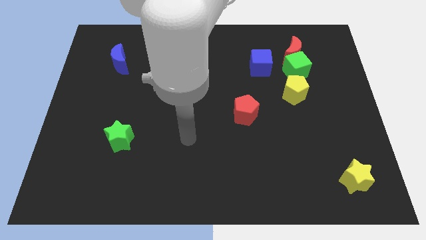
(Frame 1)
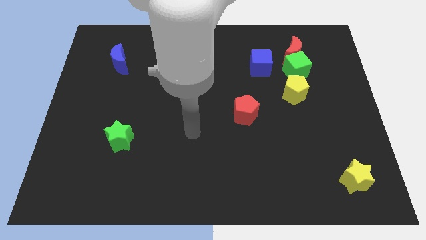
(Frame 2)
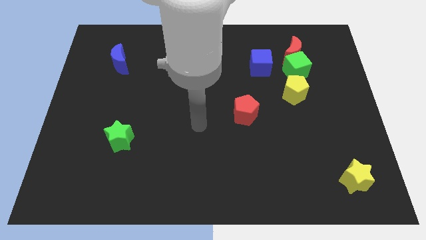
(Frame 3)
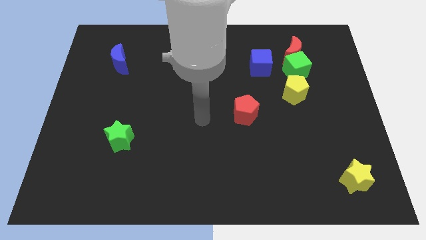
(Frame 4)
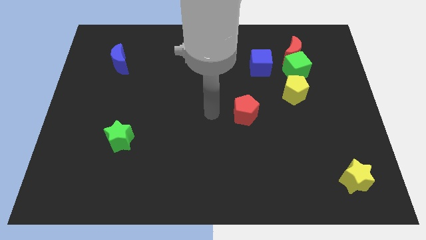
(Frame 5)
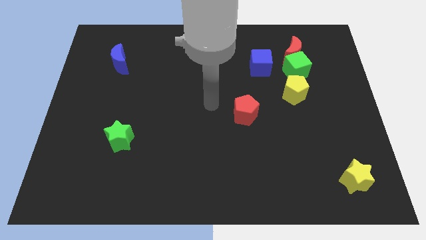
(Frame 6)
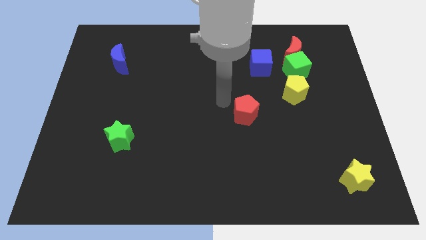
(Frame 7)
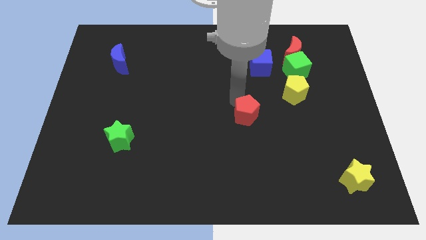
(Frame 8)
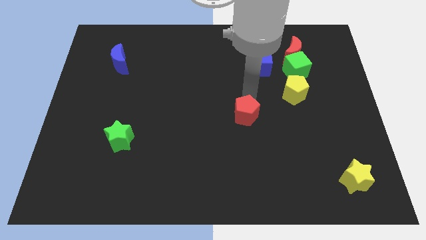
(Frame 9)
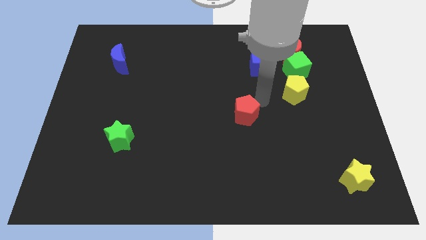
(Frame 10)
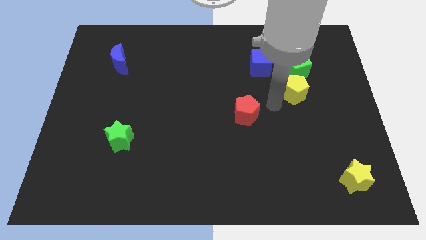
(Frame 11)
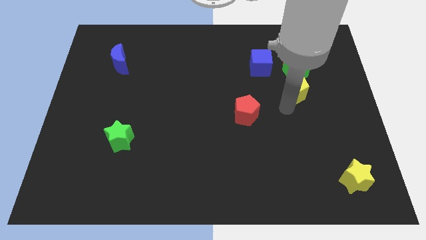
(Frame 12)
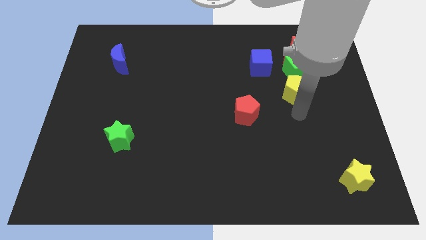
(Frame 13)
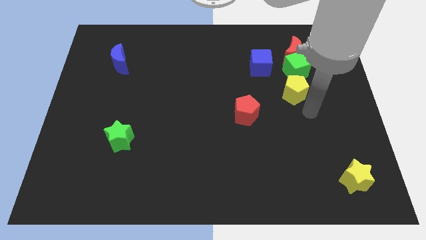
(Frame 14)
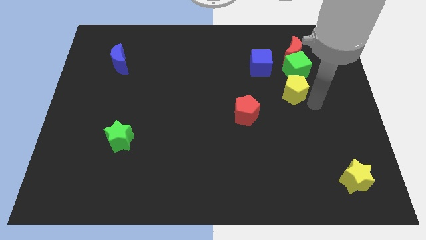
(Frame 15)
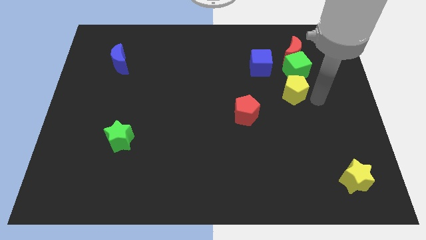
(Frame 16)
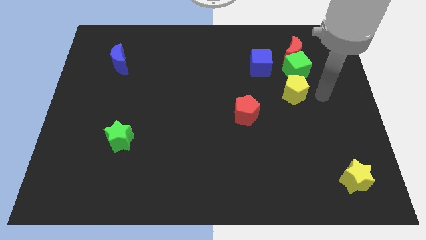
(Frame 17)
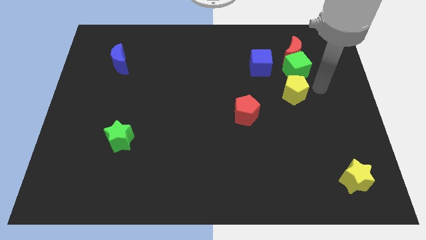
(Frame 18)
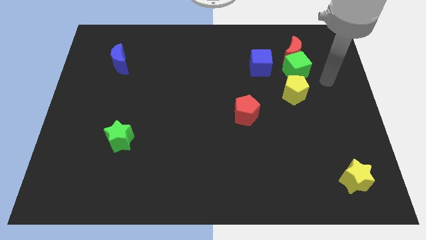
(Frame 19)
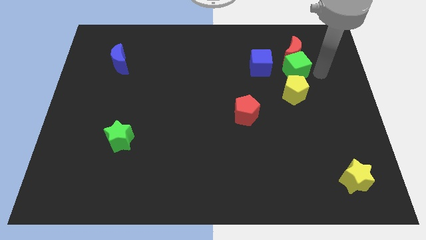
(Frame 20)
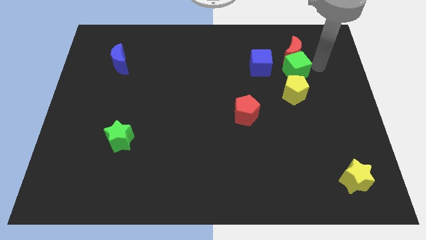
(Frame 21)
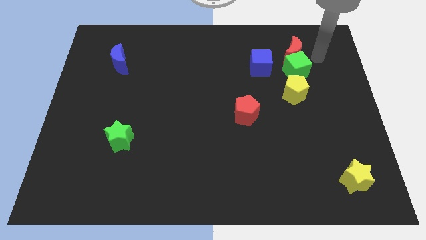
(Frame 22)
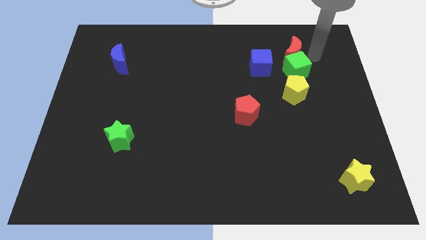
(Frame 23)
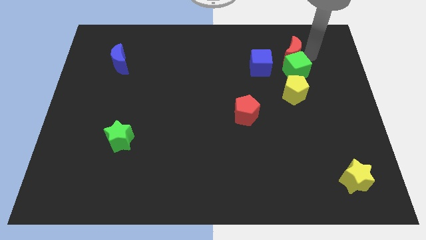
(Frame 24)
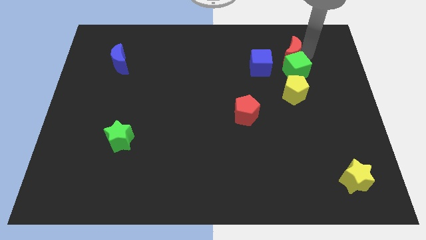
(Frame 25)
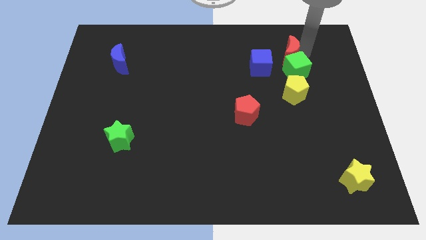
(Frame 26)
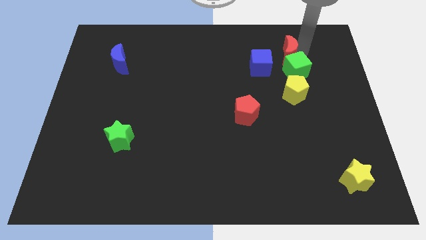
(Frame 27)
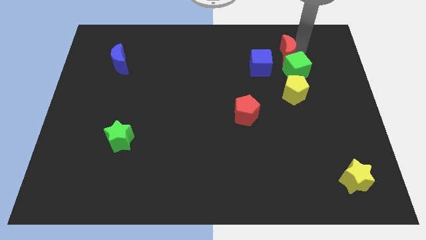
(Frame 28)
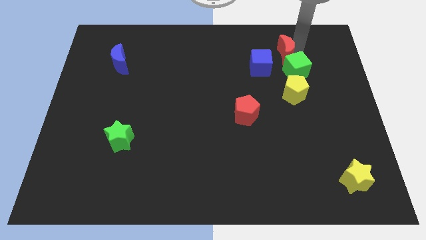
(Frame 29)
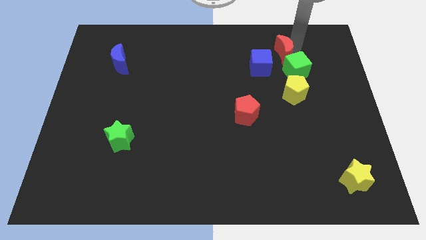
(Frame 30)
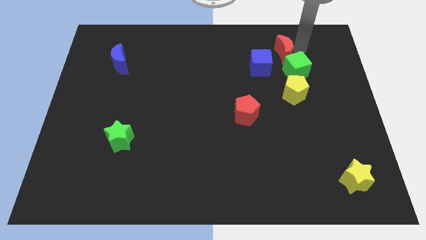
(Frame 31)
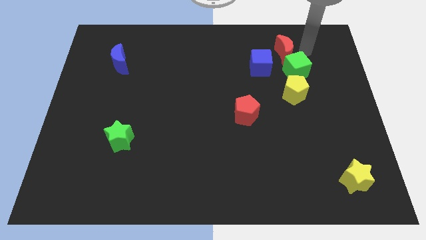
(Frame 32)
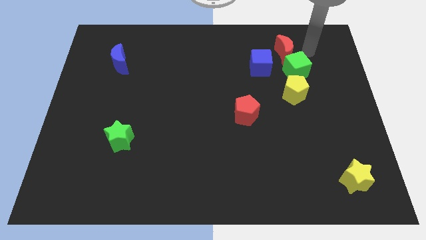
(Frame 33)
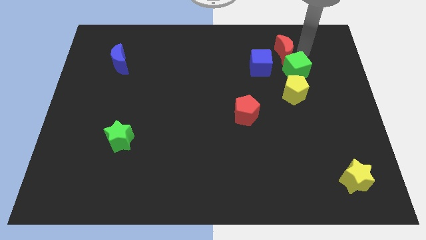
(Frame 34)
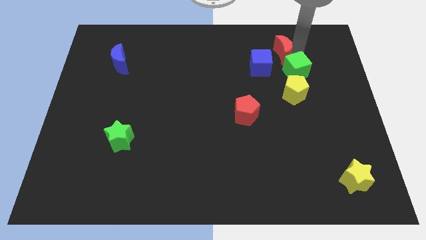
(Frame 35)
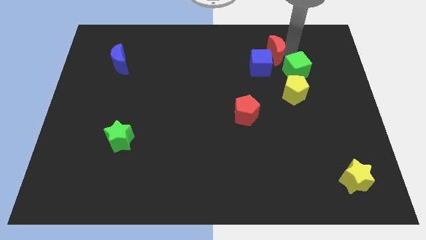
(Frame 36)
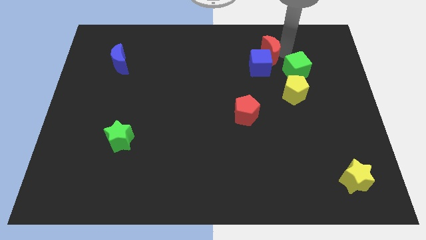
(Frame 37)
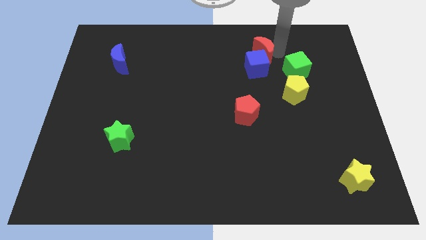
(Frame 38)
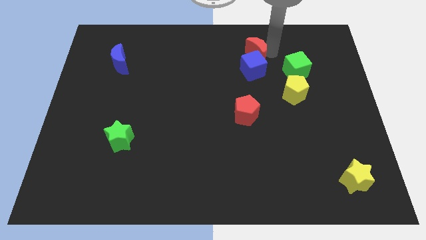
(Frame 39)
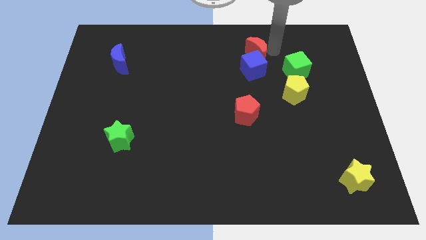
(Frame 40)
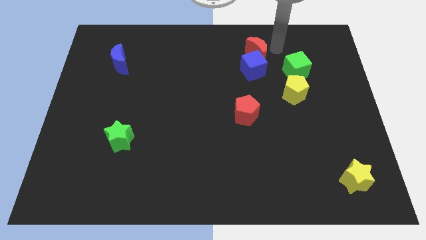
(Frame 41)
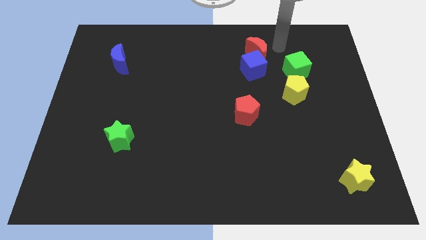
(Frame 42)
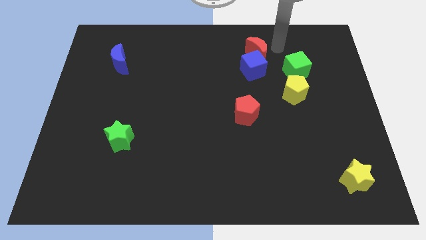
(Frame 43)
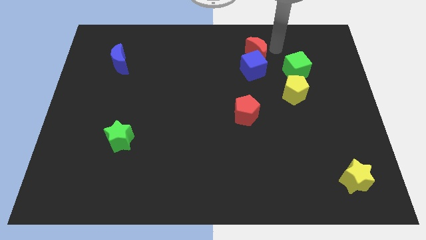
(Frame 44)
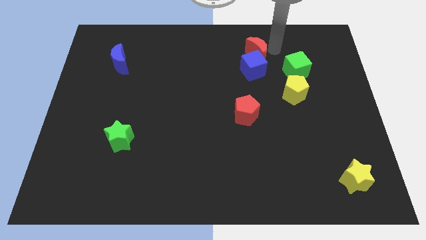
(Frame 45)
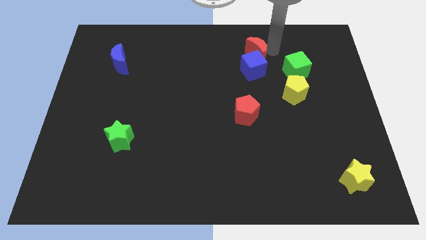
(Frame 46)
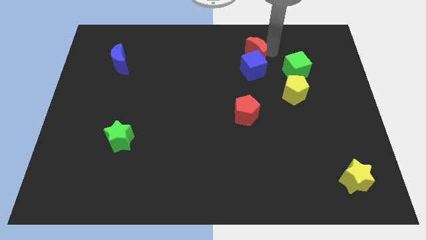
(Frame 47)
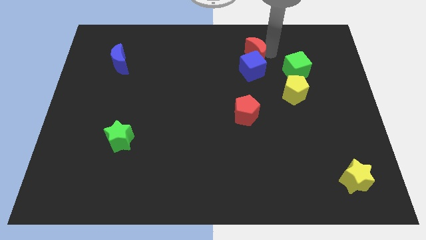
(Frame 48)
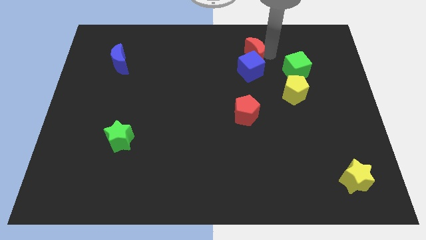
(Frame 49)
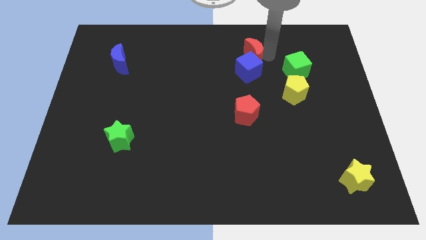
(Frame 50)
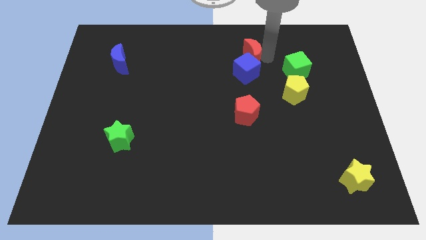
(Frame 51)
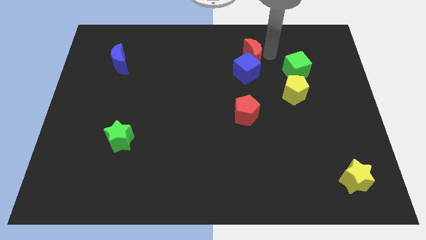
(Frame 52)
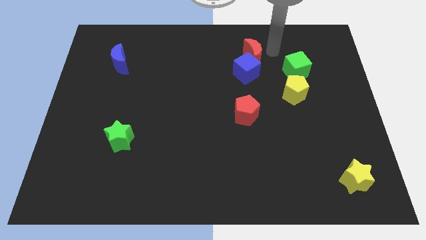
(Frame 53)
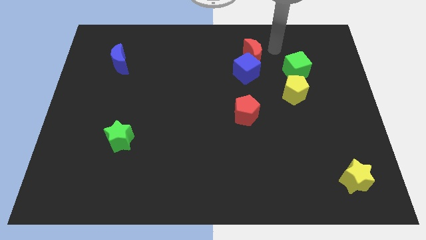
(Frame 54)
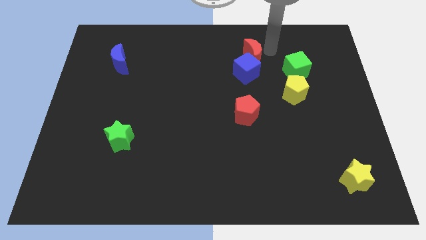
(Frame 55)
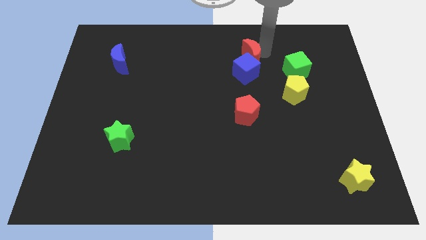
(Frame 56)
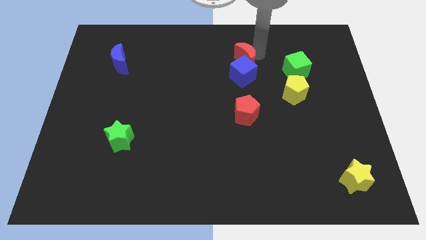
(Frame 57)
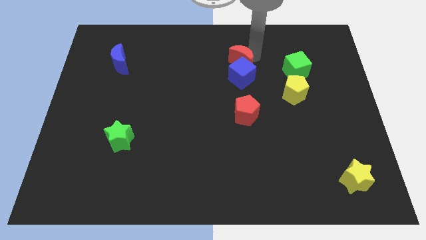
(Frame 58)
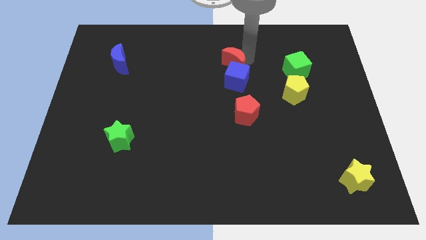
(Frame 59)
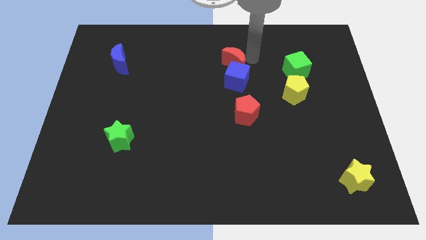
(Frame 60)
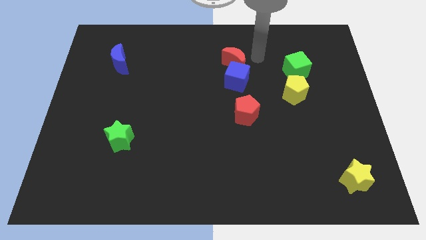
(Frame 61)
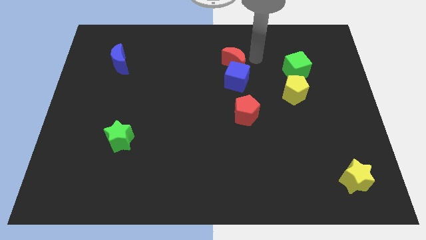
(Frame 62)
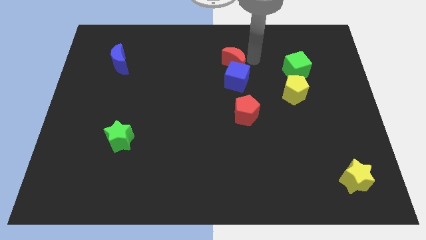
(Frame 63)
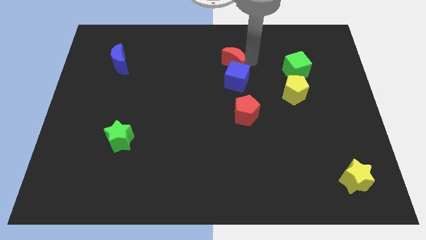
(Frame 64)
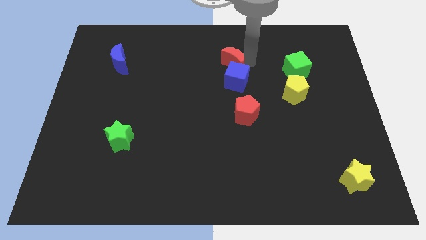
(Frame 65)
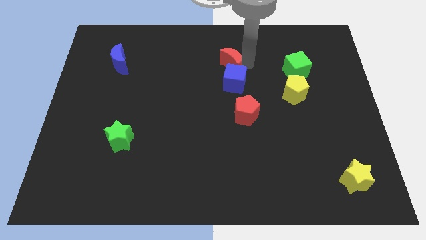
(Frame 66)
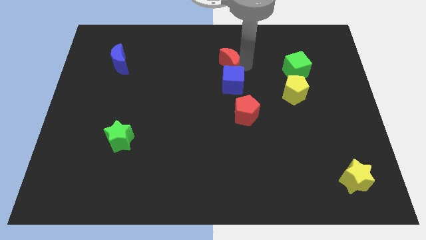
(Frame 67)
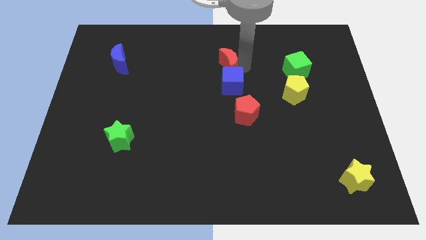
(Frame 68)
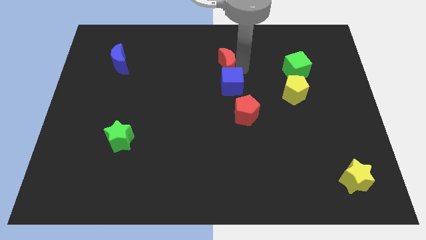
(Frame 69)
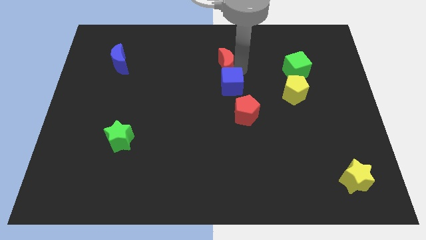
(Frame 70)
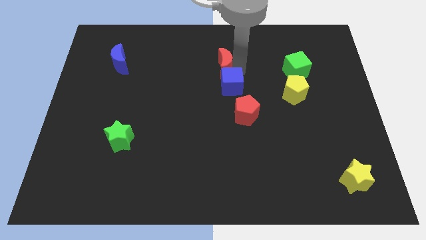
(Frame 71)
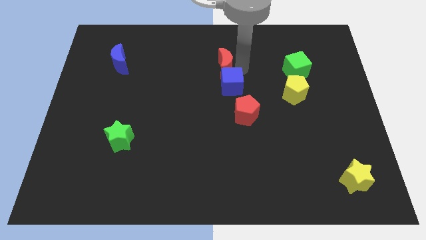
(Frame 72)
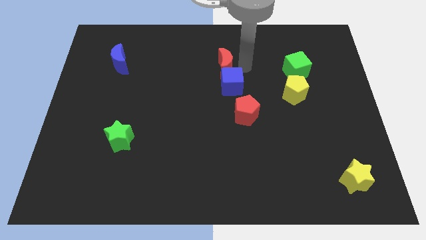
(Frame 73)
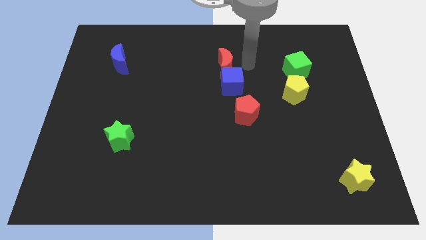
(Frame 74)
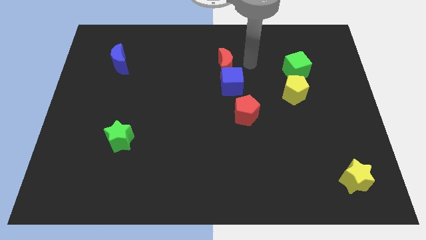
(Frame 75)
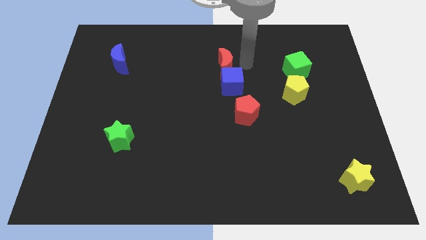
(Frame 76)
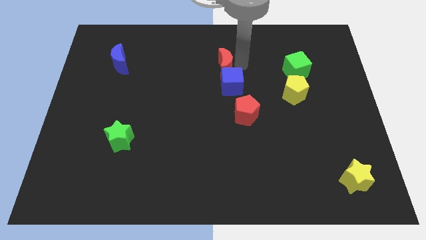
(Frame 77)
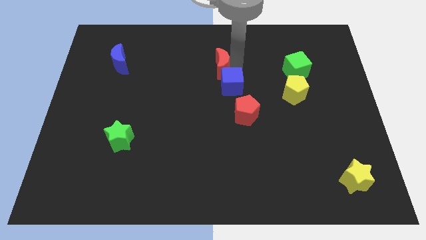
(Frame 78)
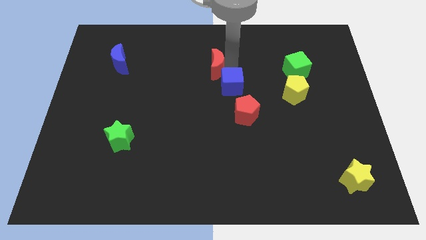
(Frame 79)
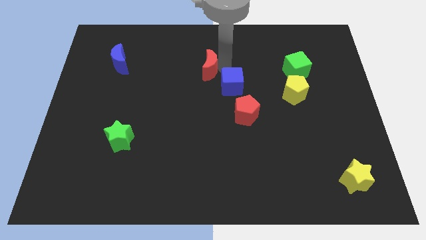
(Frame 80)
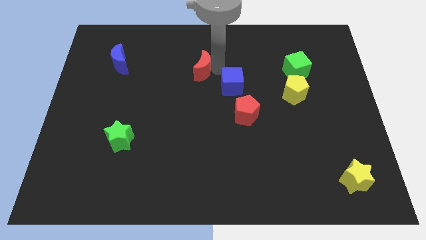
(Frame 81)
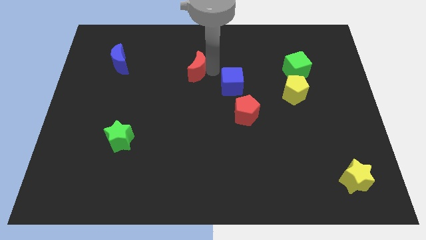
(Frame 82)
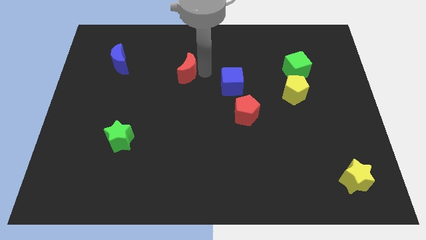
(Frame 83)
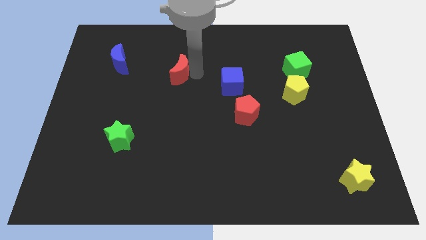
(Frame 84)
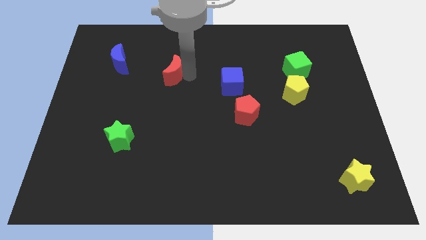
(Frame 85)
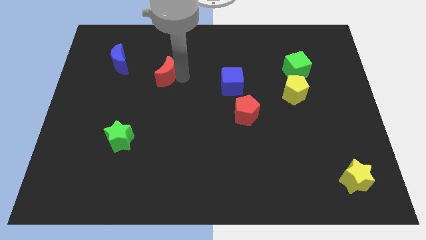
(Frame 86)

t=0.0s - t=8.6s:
push the red moon to the right of the blue moon
